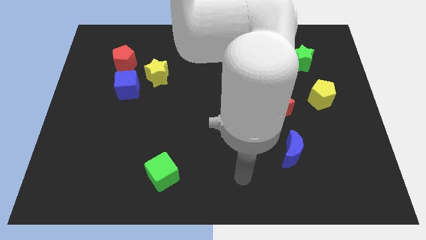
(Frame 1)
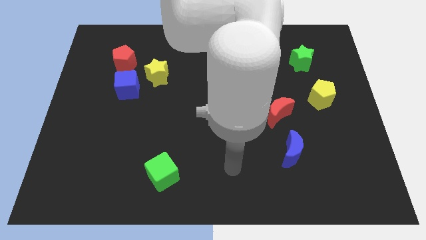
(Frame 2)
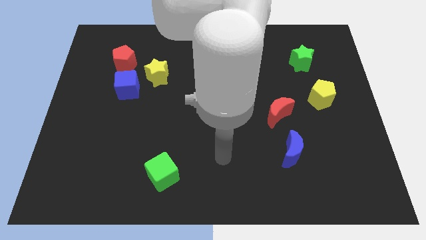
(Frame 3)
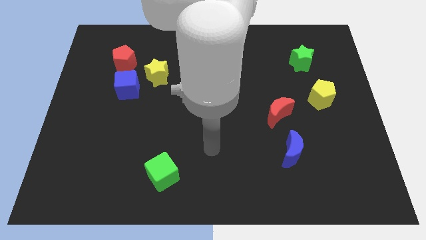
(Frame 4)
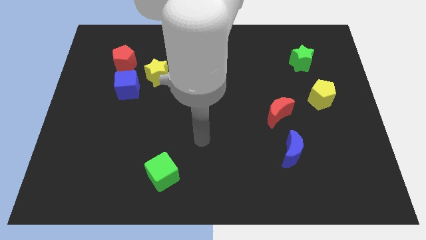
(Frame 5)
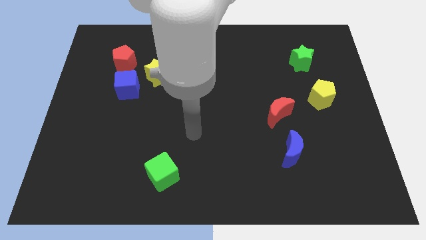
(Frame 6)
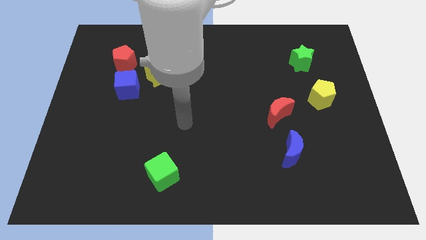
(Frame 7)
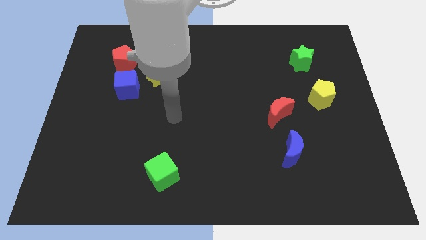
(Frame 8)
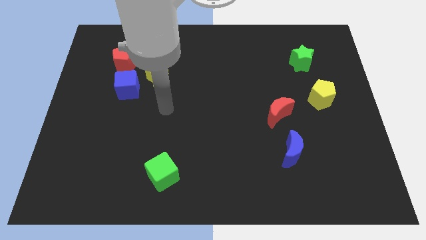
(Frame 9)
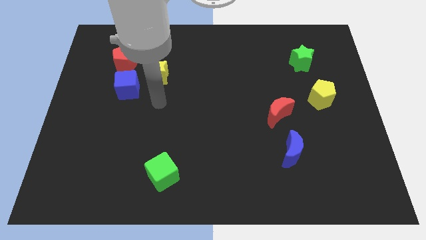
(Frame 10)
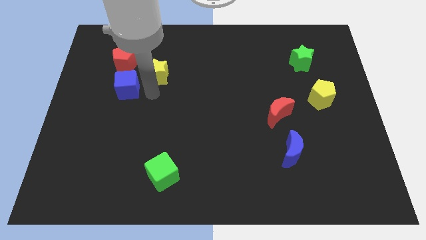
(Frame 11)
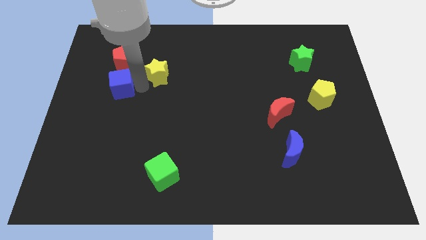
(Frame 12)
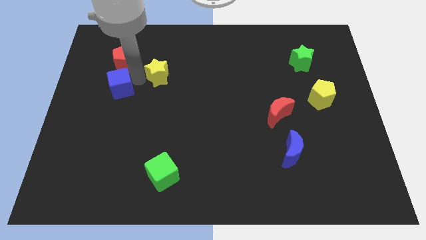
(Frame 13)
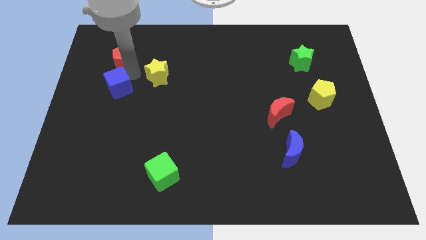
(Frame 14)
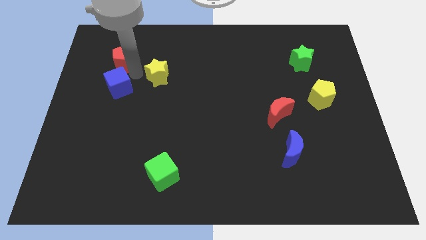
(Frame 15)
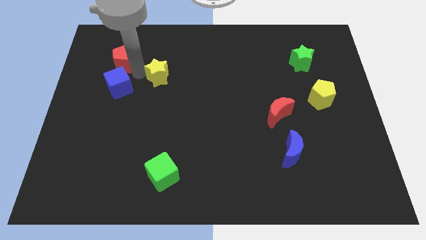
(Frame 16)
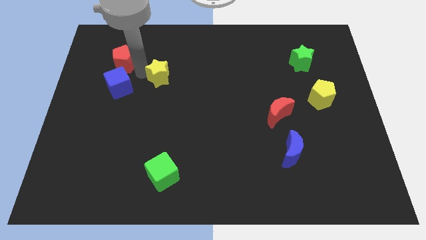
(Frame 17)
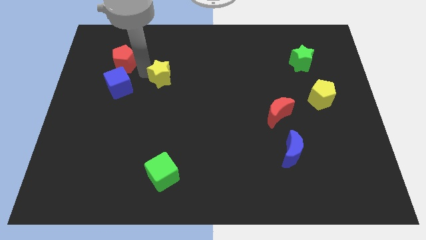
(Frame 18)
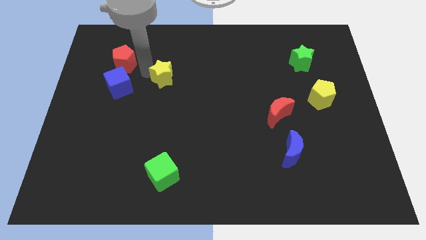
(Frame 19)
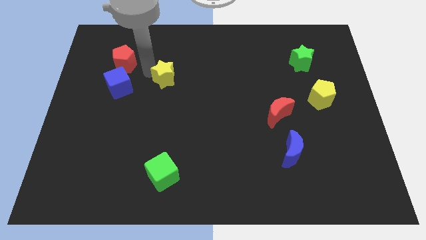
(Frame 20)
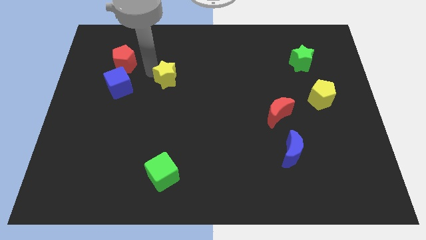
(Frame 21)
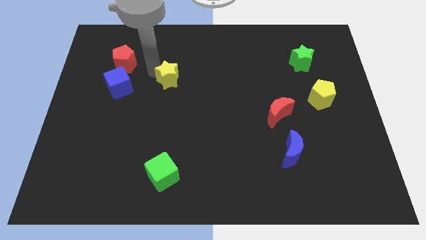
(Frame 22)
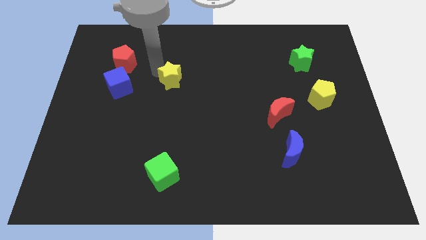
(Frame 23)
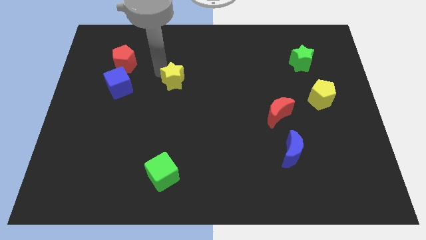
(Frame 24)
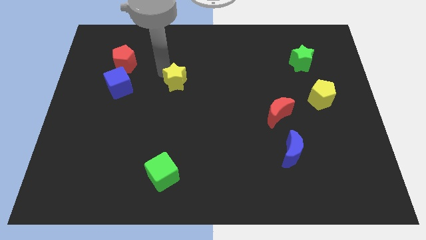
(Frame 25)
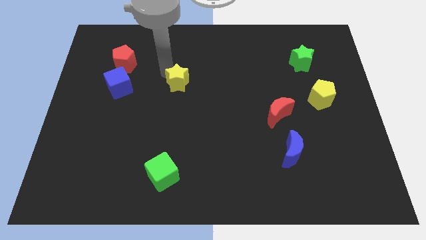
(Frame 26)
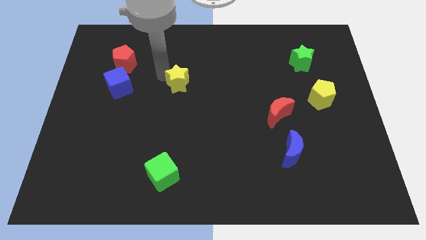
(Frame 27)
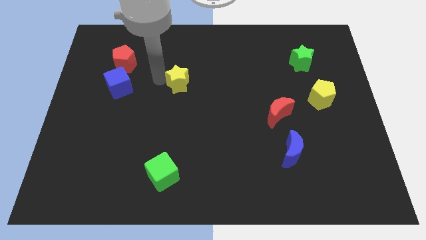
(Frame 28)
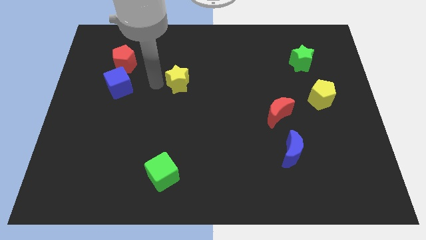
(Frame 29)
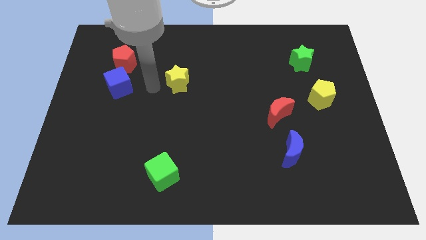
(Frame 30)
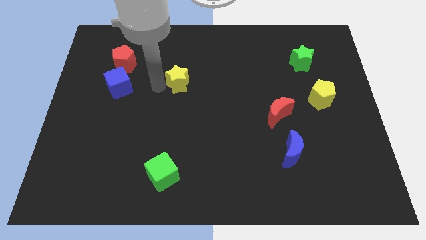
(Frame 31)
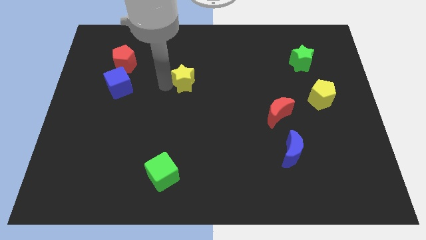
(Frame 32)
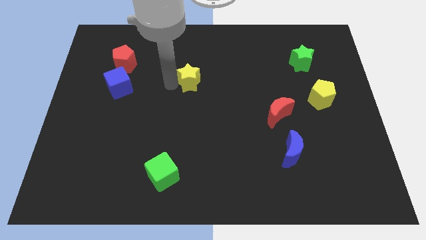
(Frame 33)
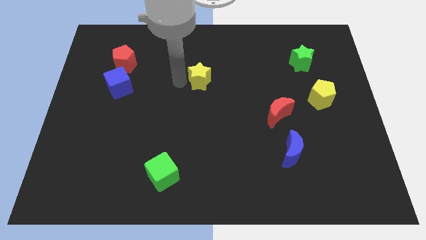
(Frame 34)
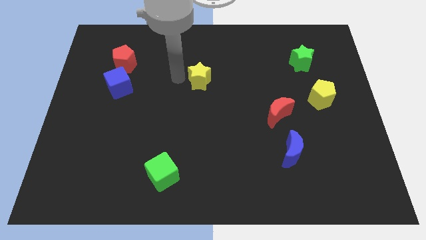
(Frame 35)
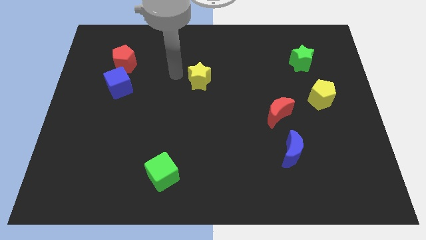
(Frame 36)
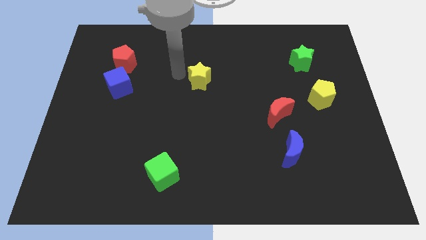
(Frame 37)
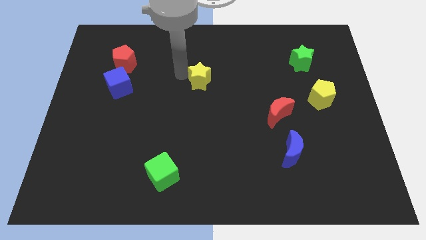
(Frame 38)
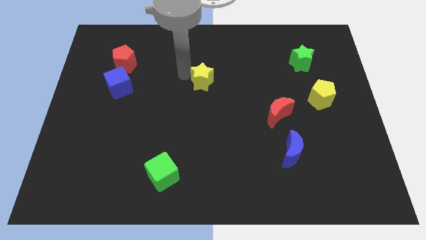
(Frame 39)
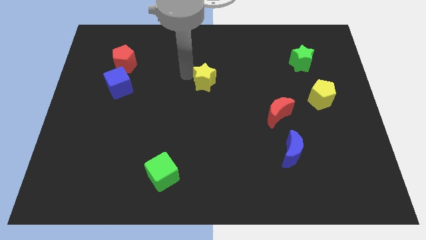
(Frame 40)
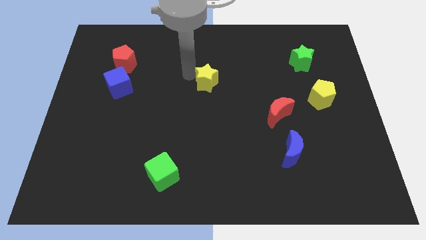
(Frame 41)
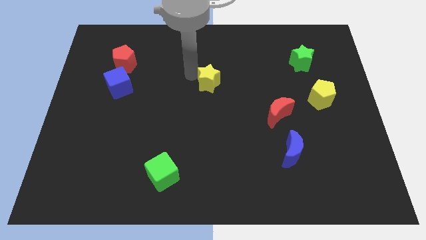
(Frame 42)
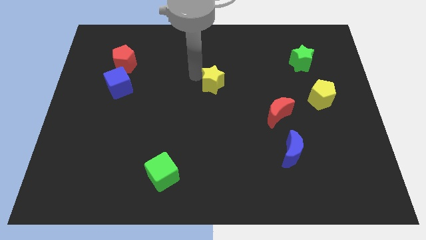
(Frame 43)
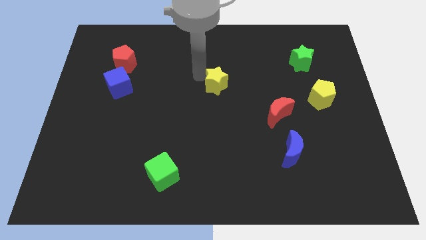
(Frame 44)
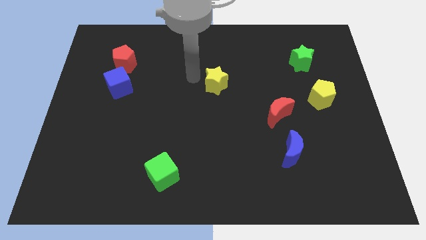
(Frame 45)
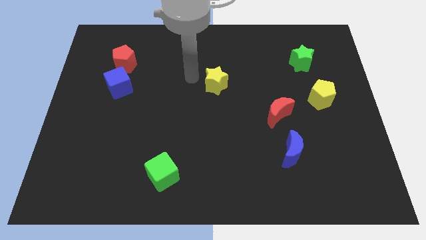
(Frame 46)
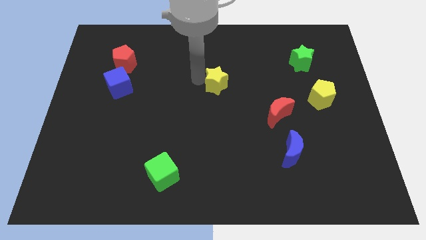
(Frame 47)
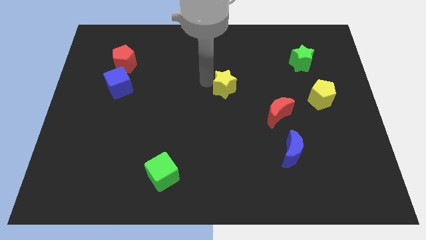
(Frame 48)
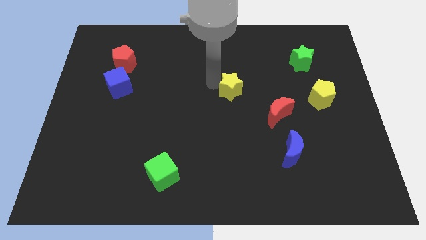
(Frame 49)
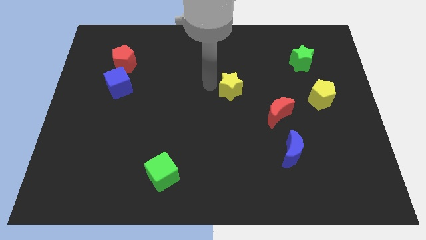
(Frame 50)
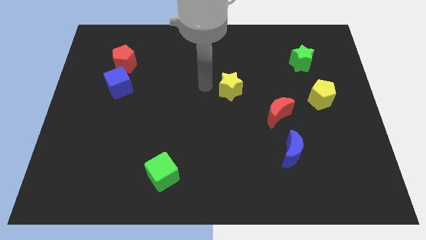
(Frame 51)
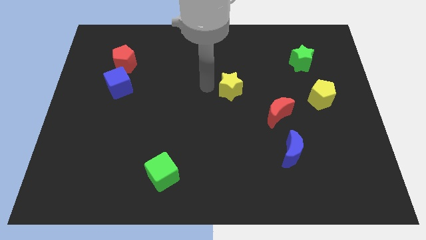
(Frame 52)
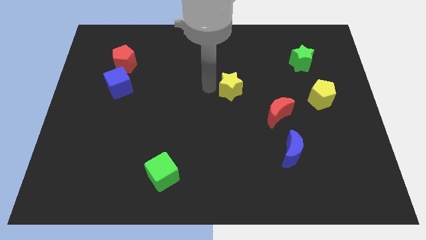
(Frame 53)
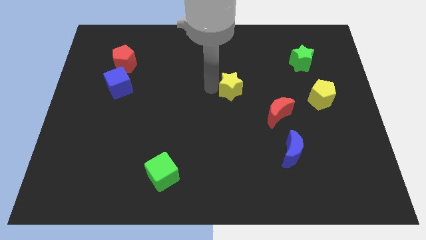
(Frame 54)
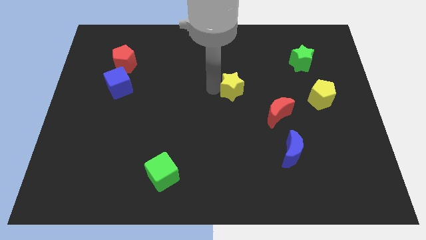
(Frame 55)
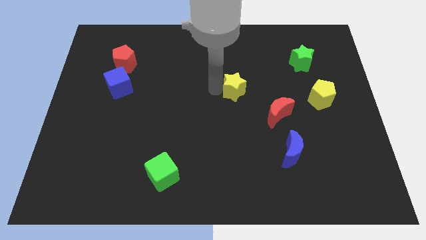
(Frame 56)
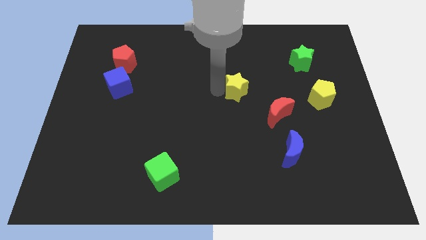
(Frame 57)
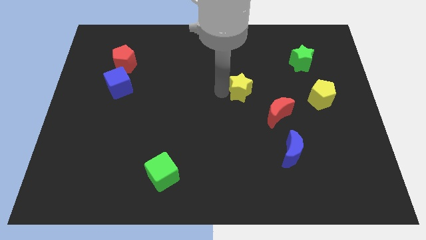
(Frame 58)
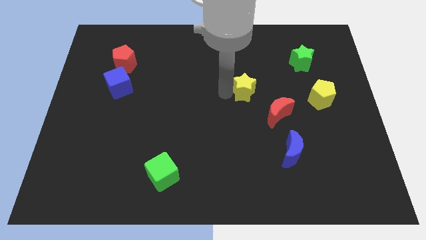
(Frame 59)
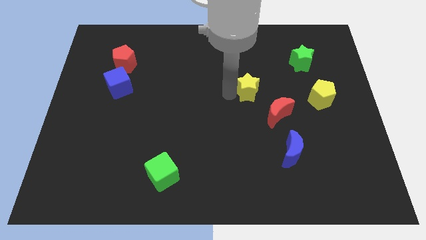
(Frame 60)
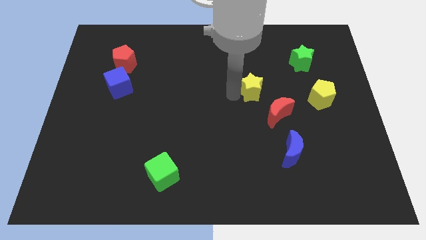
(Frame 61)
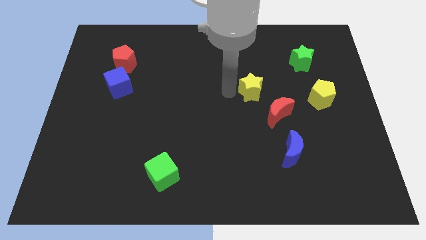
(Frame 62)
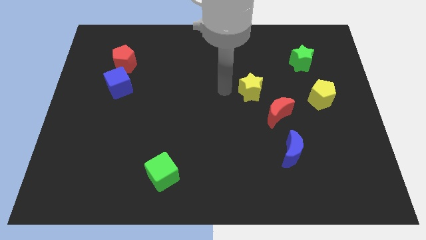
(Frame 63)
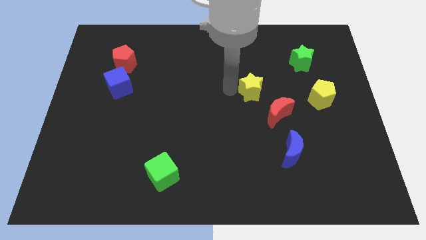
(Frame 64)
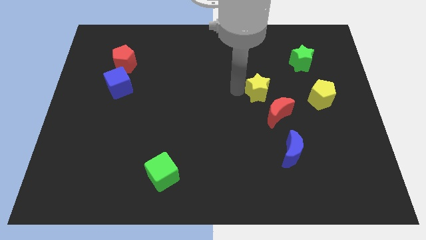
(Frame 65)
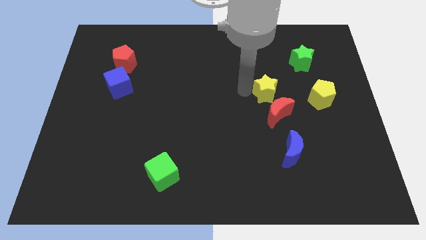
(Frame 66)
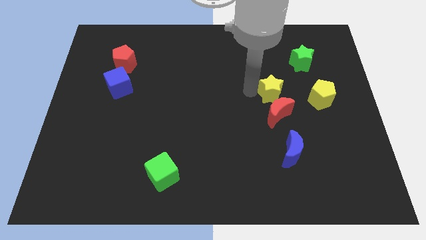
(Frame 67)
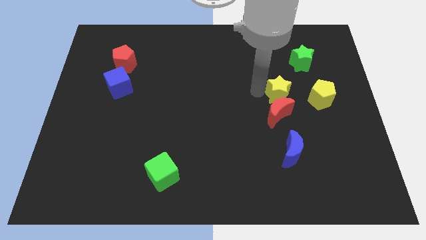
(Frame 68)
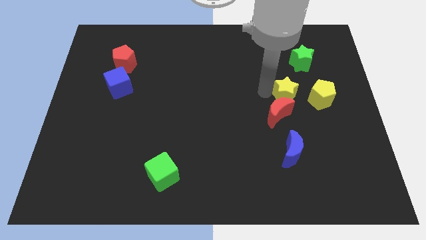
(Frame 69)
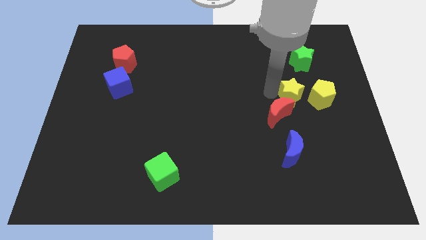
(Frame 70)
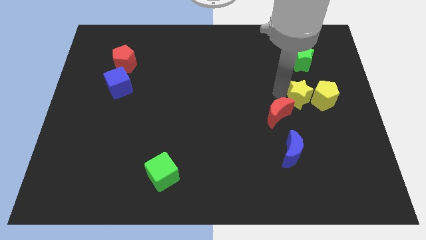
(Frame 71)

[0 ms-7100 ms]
put the yellow star just right of the red moon
